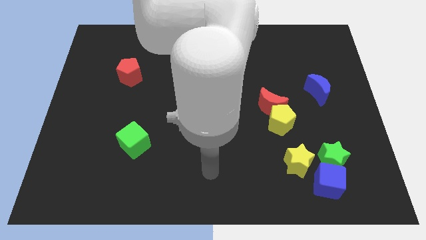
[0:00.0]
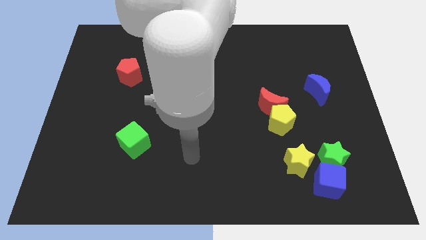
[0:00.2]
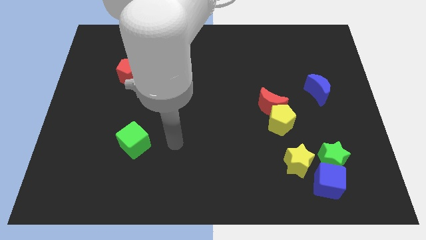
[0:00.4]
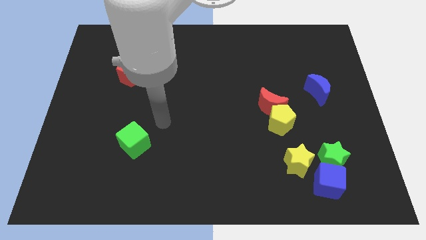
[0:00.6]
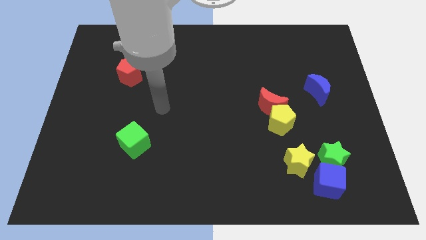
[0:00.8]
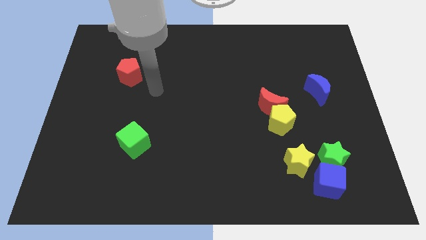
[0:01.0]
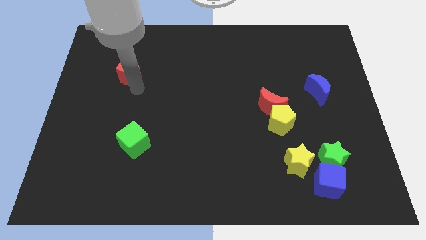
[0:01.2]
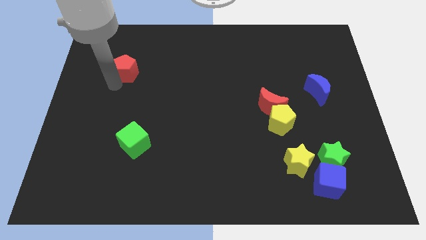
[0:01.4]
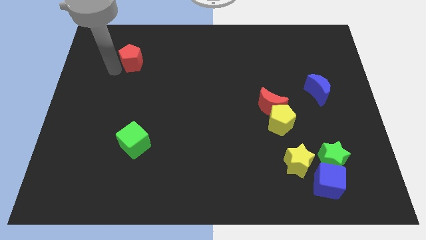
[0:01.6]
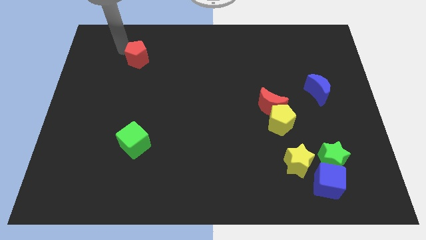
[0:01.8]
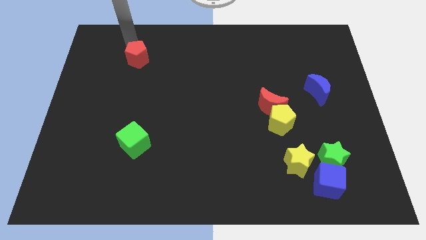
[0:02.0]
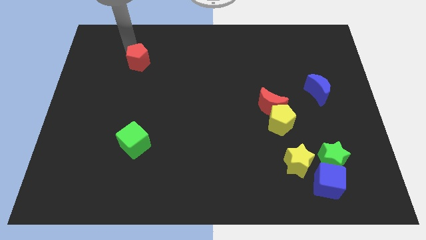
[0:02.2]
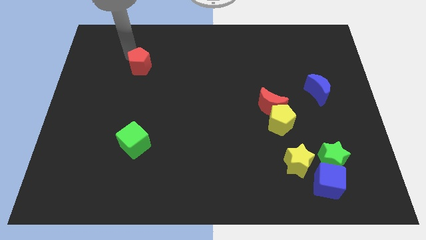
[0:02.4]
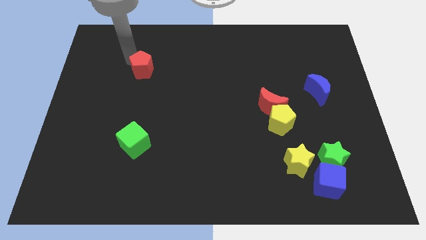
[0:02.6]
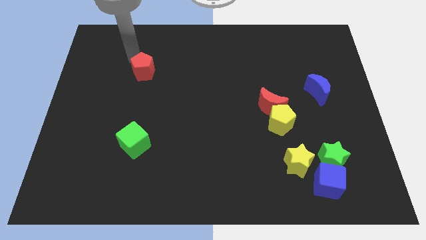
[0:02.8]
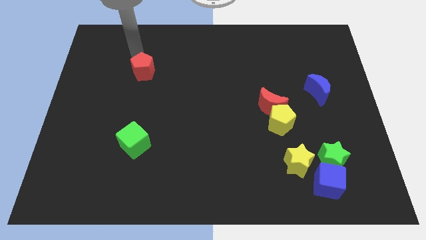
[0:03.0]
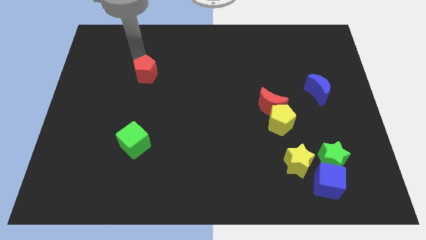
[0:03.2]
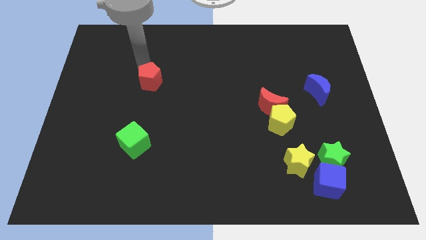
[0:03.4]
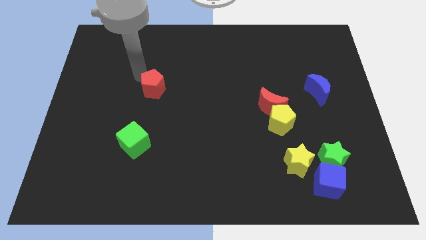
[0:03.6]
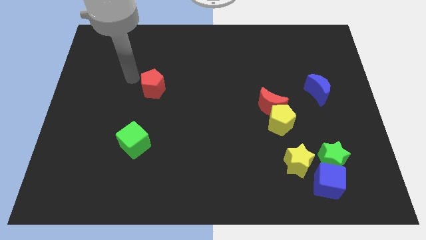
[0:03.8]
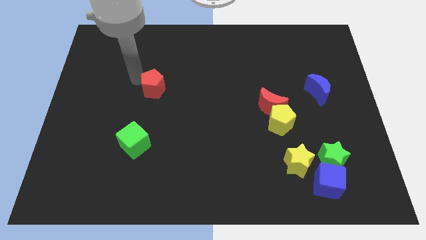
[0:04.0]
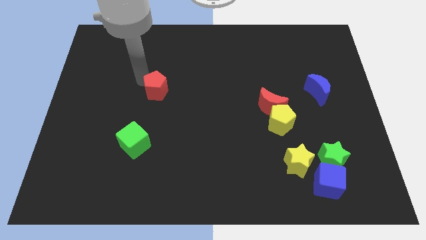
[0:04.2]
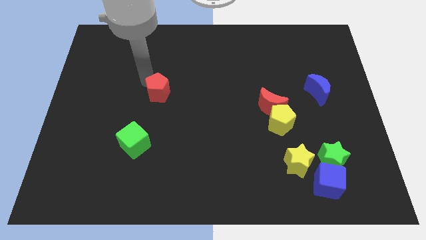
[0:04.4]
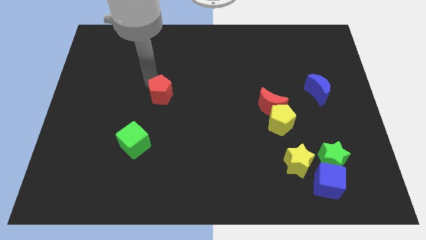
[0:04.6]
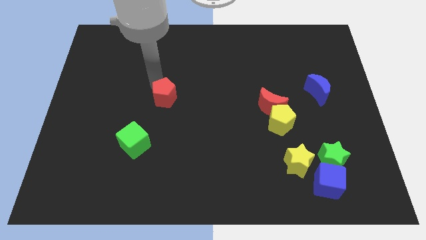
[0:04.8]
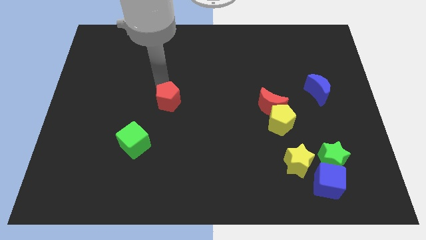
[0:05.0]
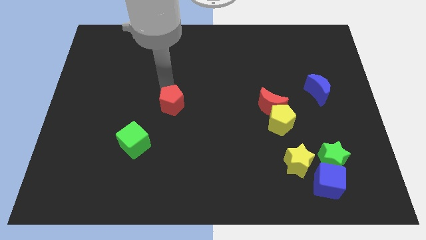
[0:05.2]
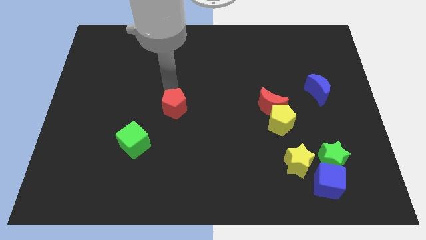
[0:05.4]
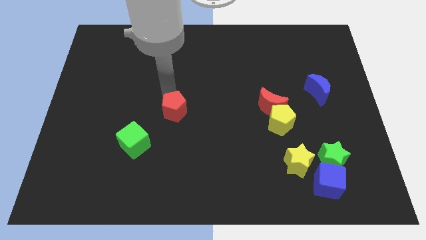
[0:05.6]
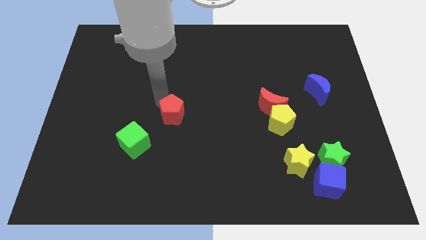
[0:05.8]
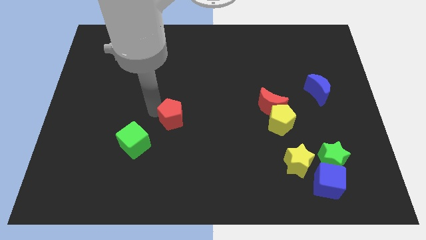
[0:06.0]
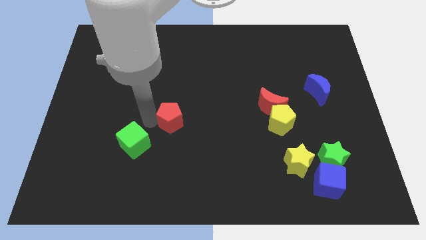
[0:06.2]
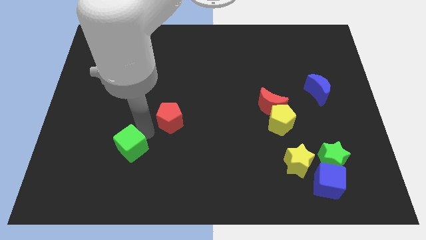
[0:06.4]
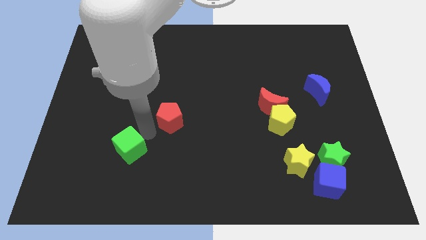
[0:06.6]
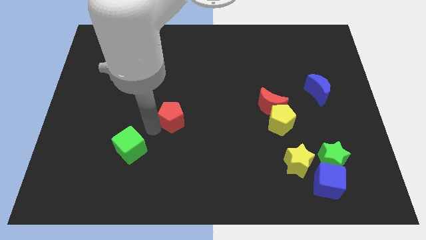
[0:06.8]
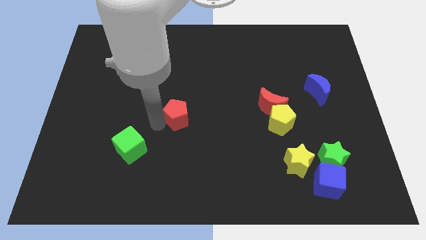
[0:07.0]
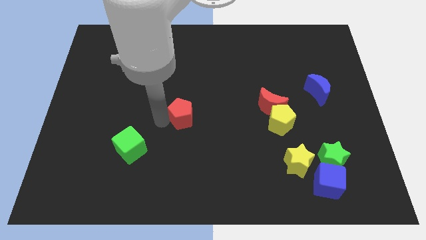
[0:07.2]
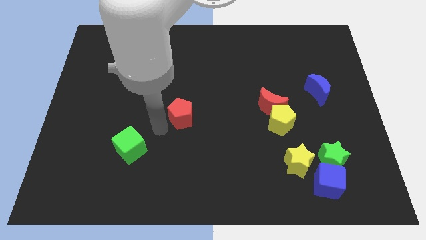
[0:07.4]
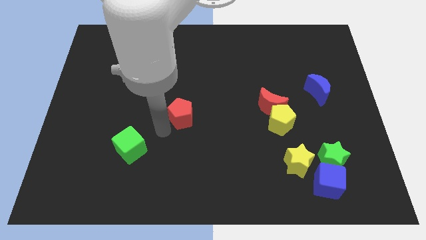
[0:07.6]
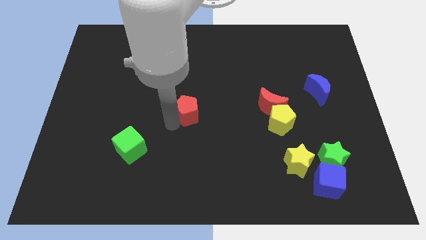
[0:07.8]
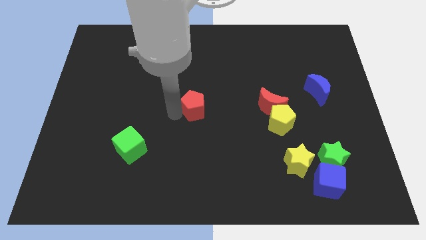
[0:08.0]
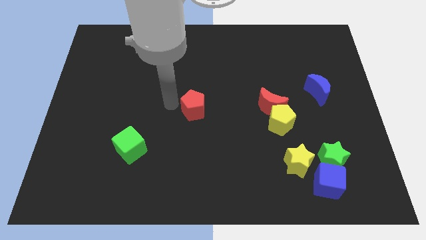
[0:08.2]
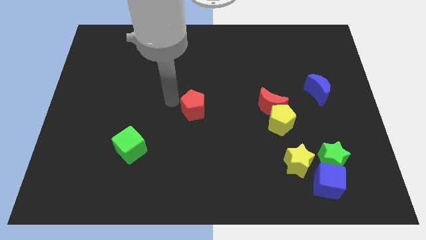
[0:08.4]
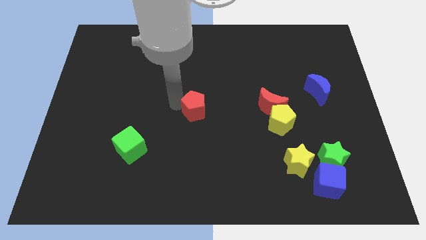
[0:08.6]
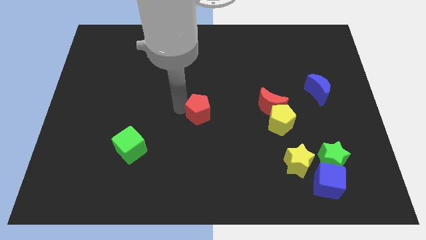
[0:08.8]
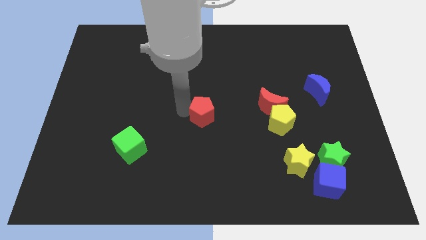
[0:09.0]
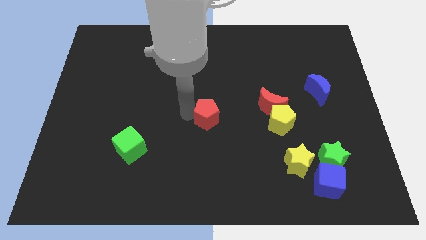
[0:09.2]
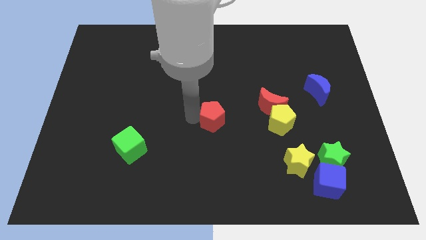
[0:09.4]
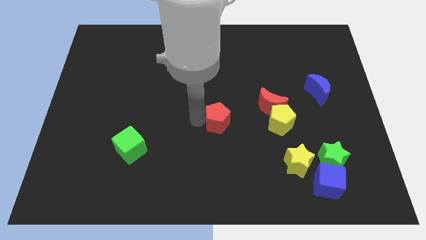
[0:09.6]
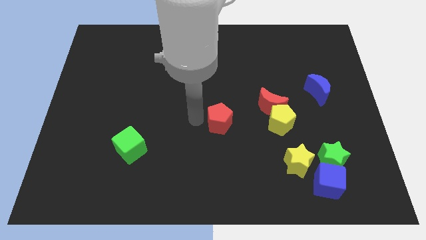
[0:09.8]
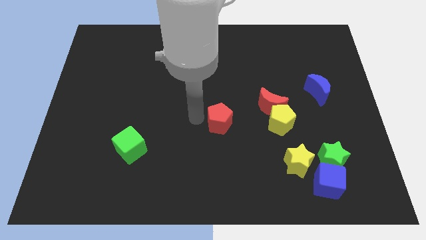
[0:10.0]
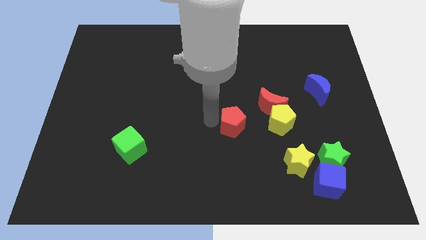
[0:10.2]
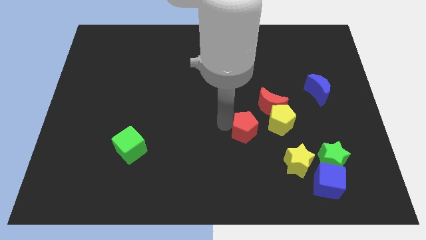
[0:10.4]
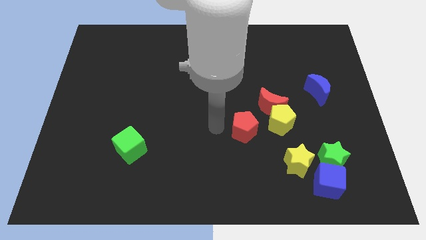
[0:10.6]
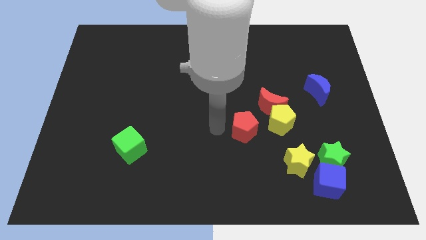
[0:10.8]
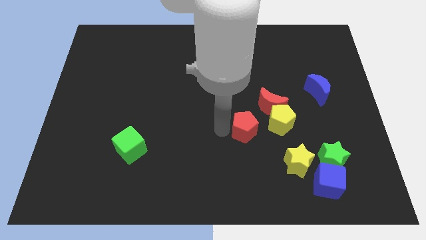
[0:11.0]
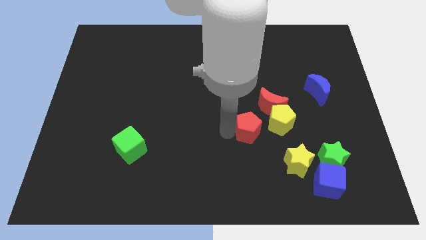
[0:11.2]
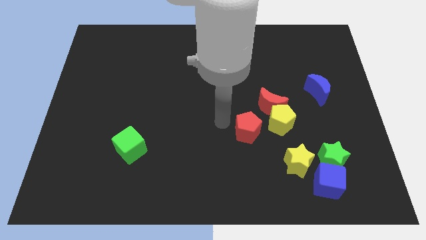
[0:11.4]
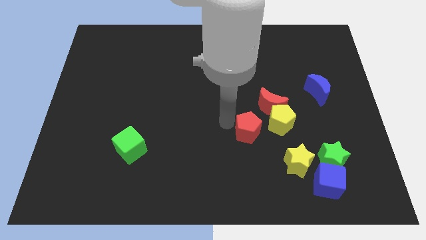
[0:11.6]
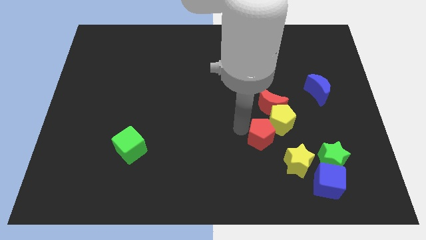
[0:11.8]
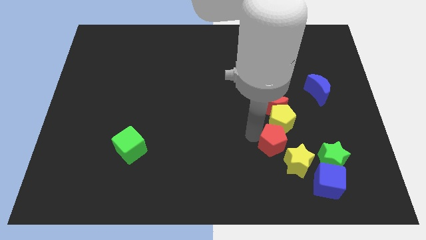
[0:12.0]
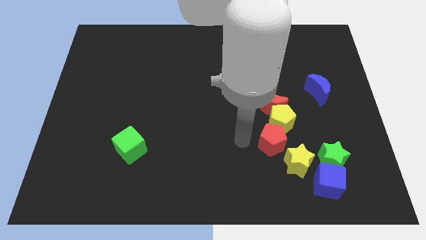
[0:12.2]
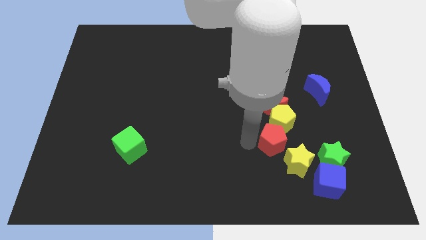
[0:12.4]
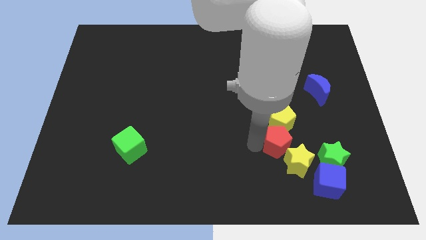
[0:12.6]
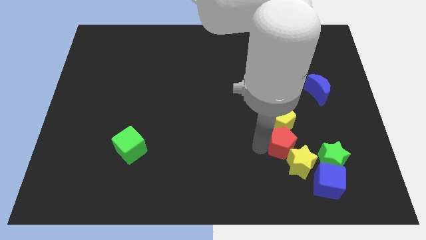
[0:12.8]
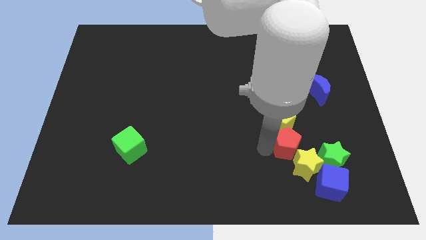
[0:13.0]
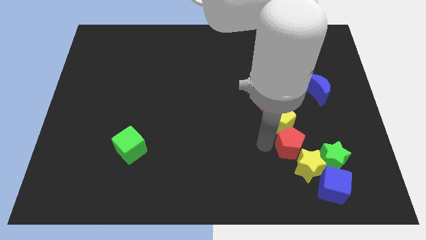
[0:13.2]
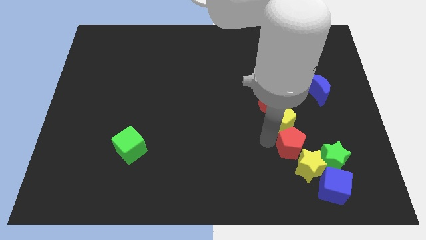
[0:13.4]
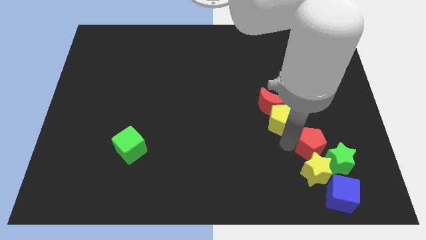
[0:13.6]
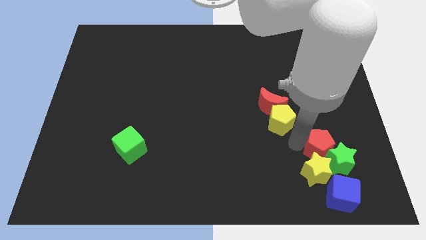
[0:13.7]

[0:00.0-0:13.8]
put the red pentagon towards the green star
